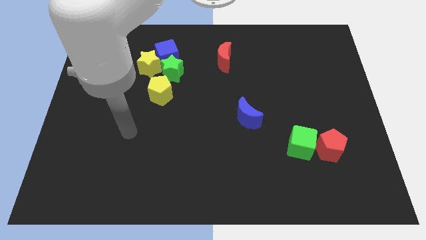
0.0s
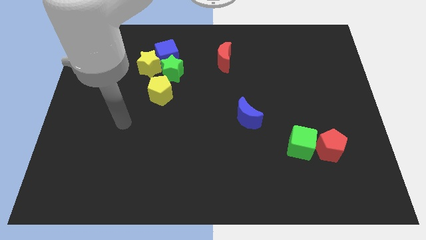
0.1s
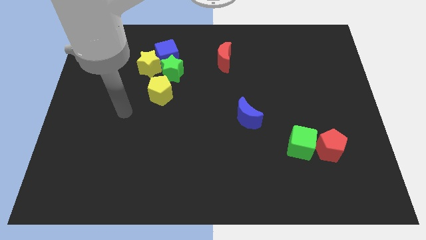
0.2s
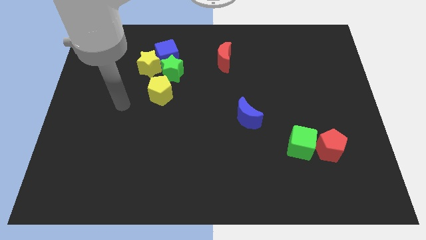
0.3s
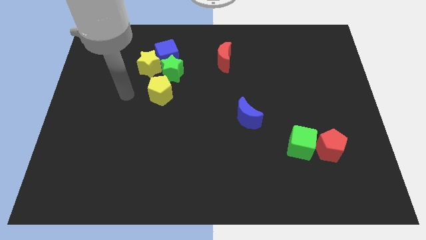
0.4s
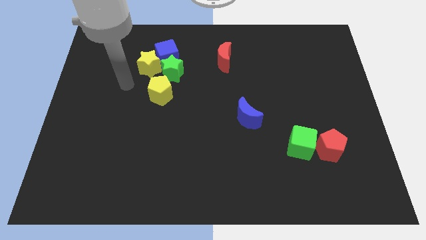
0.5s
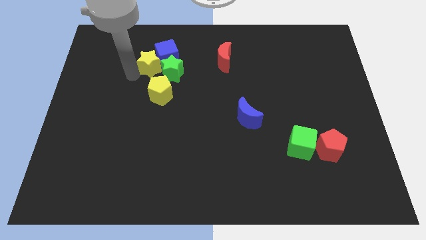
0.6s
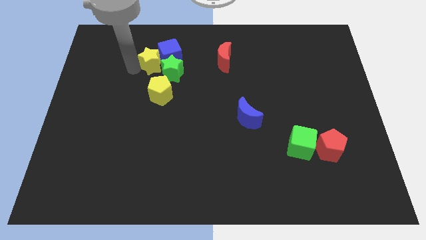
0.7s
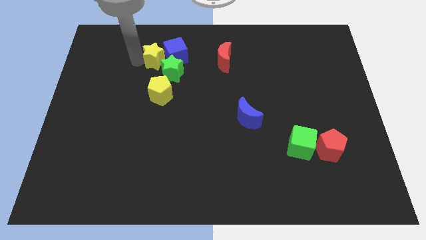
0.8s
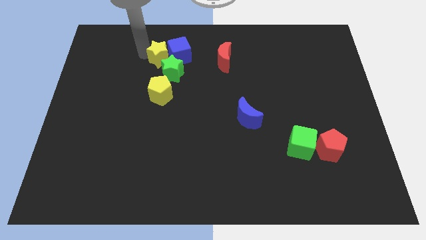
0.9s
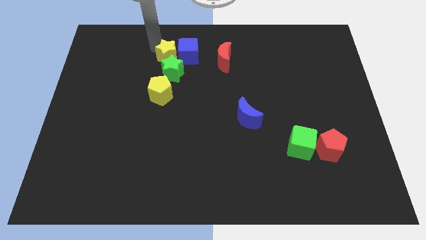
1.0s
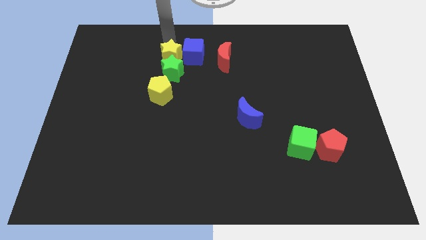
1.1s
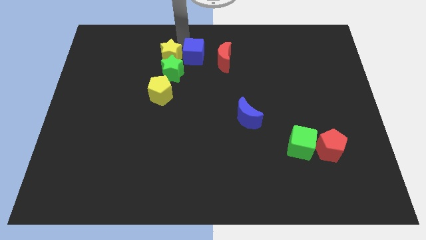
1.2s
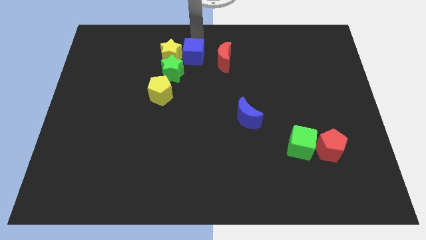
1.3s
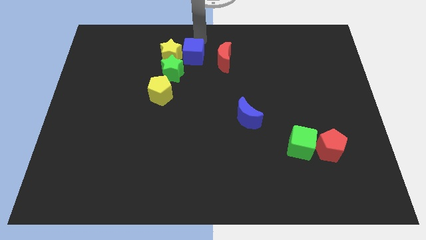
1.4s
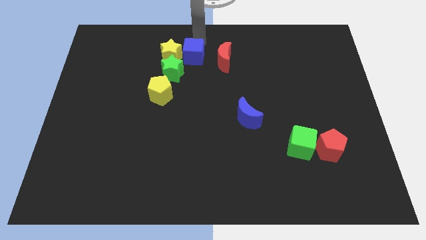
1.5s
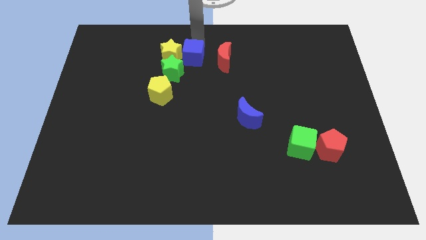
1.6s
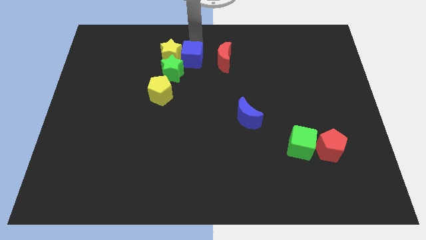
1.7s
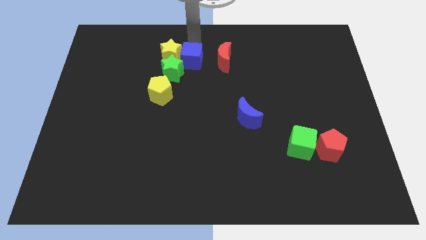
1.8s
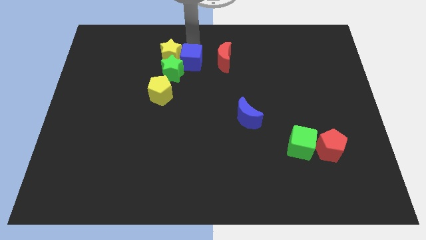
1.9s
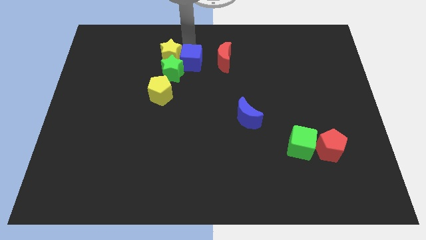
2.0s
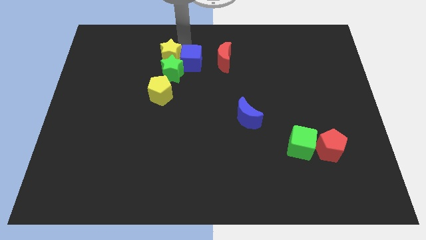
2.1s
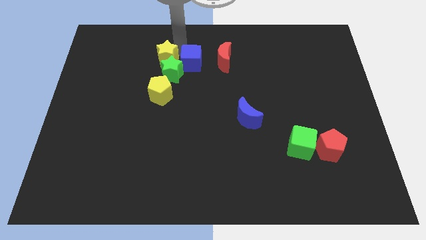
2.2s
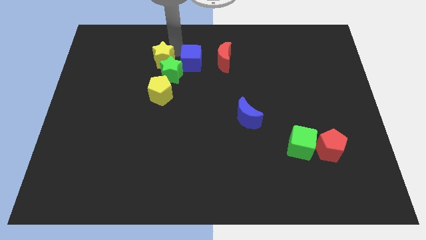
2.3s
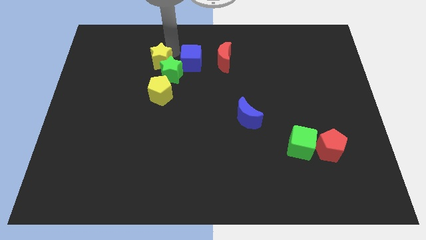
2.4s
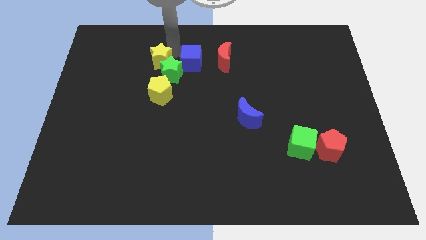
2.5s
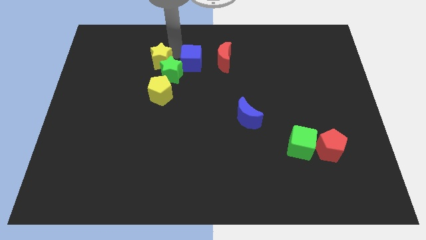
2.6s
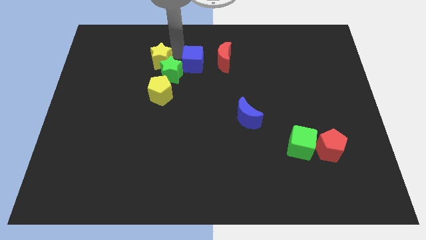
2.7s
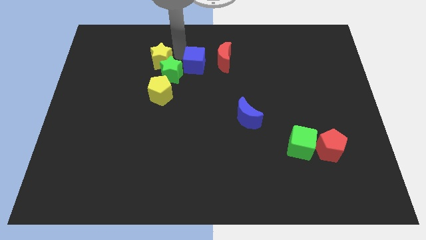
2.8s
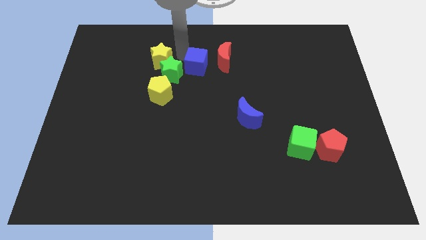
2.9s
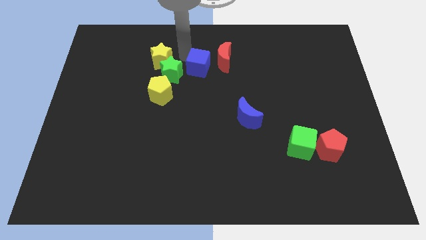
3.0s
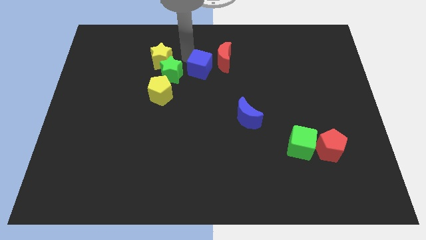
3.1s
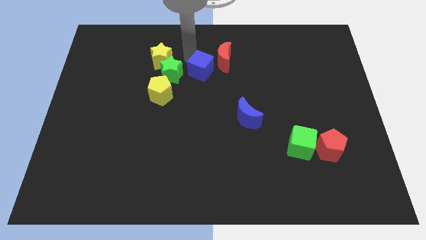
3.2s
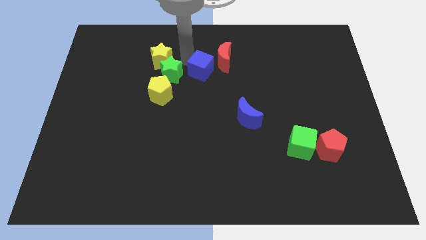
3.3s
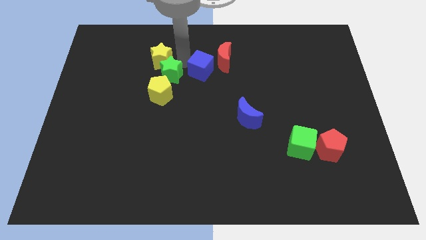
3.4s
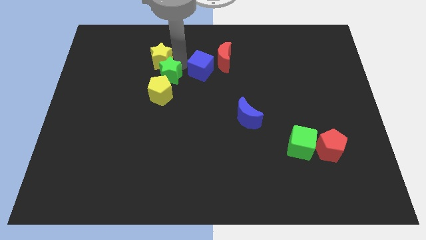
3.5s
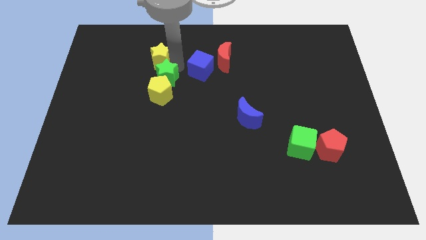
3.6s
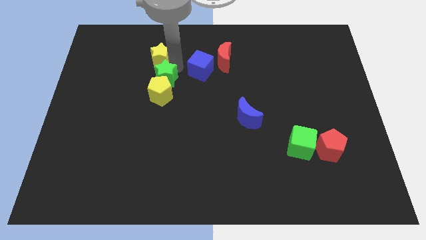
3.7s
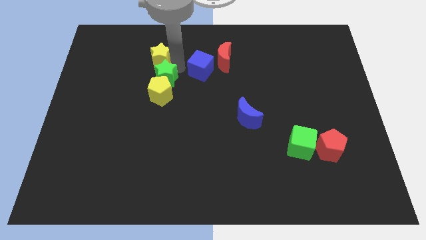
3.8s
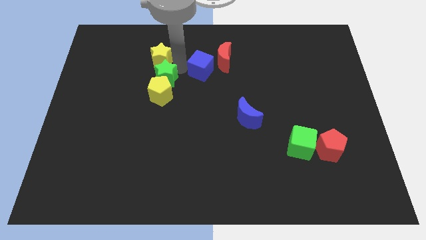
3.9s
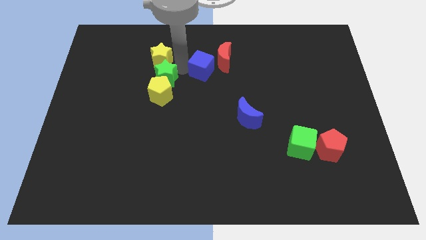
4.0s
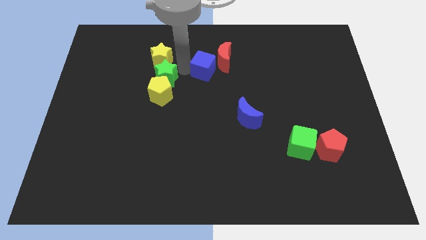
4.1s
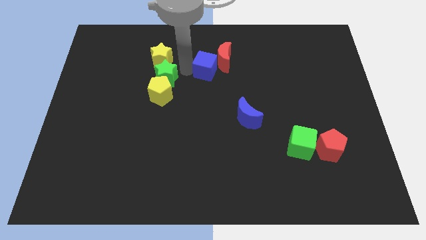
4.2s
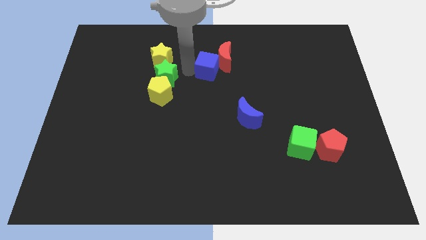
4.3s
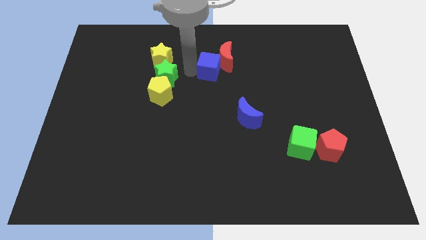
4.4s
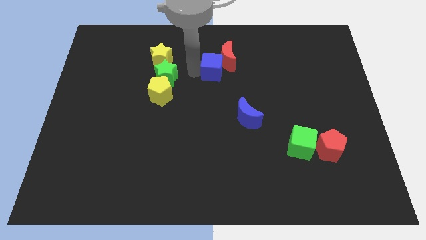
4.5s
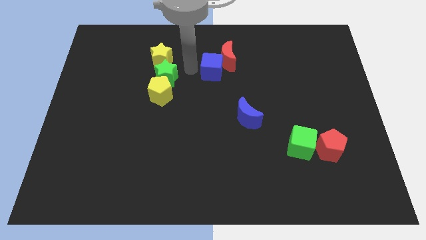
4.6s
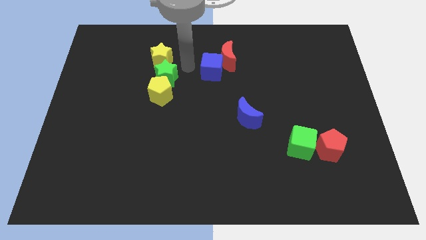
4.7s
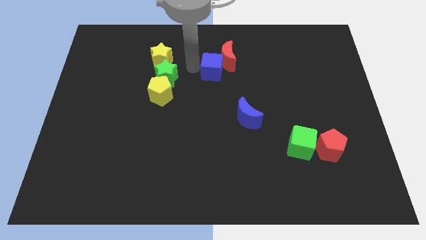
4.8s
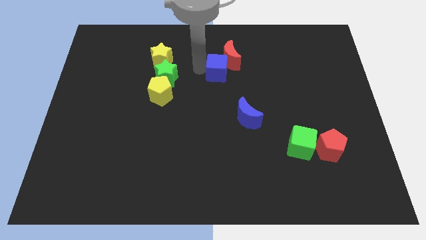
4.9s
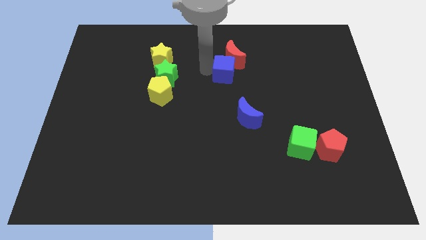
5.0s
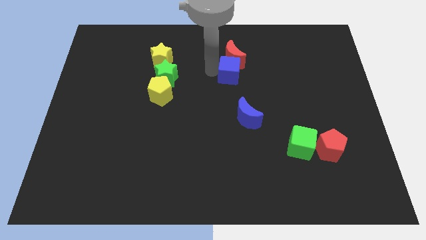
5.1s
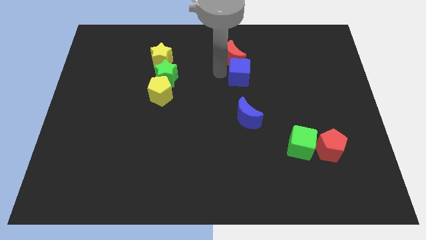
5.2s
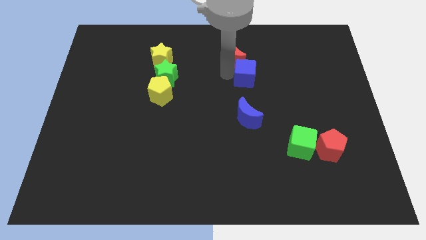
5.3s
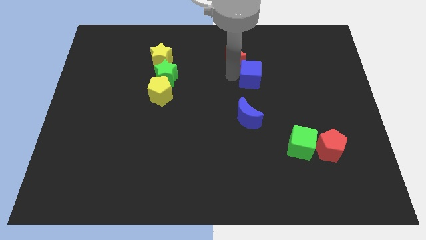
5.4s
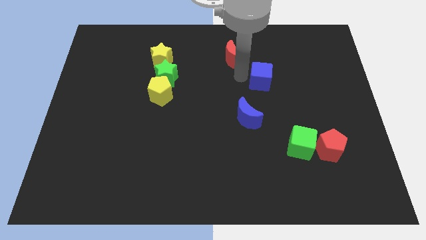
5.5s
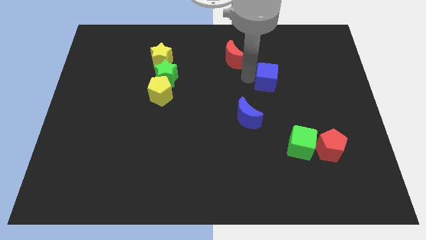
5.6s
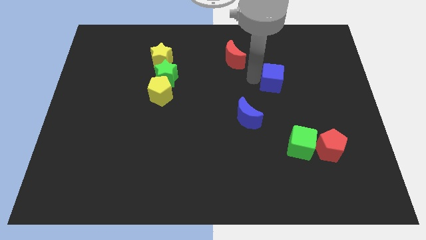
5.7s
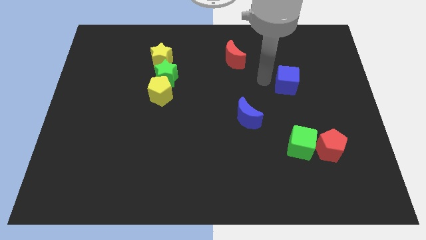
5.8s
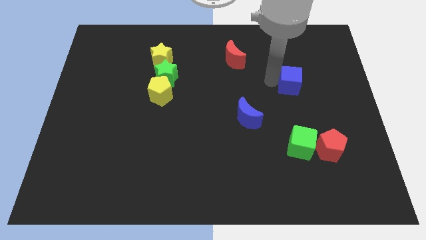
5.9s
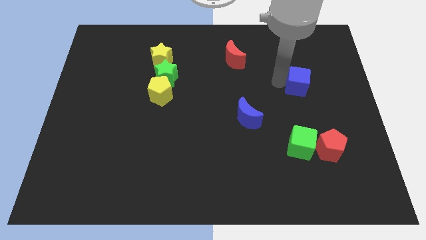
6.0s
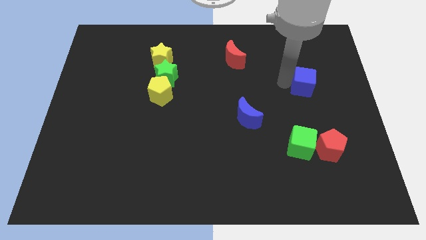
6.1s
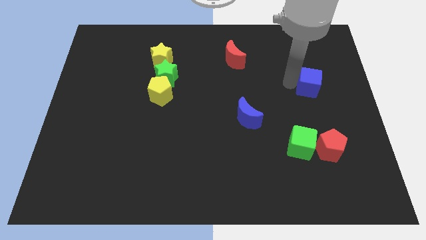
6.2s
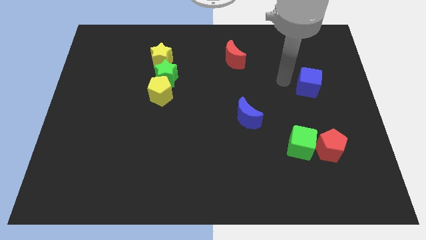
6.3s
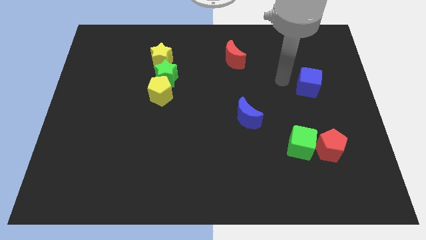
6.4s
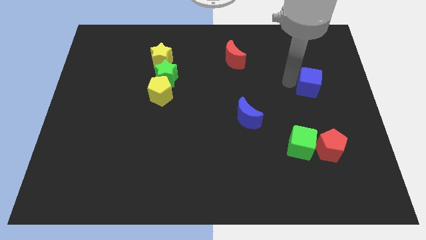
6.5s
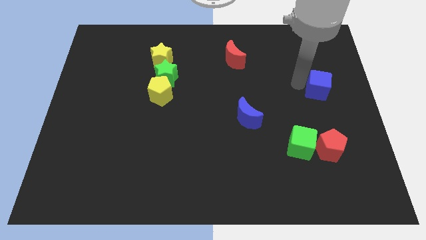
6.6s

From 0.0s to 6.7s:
put the blue cube to the right side of the board
